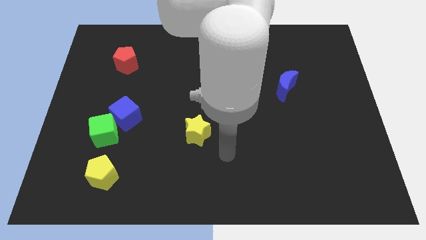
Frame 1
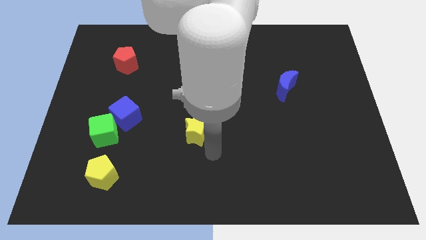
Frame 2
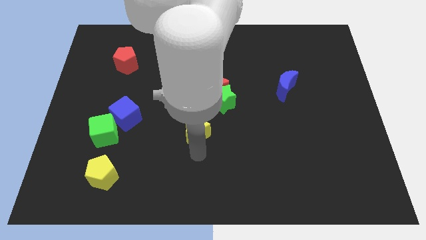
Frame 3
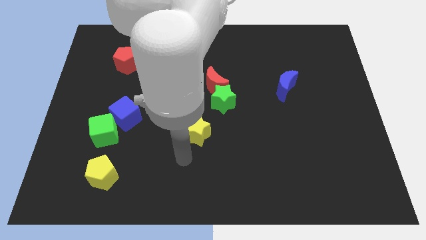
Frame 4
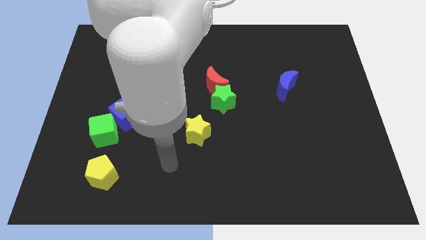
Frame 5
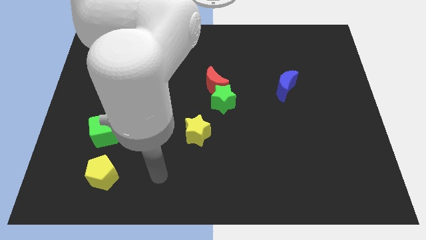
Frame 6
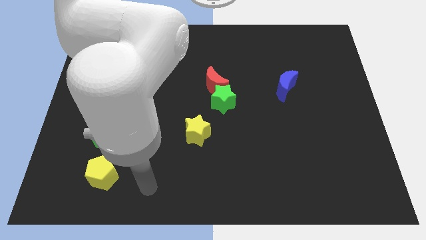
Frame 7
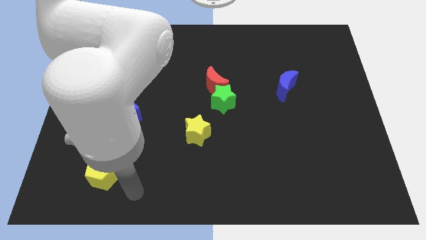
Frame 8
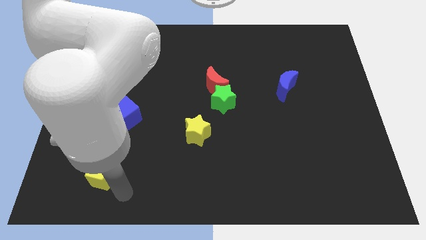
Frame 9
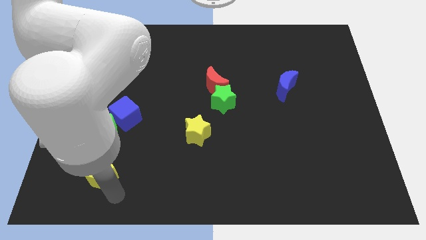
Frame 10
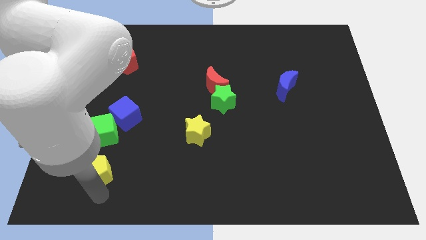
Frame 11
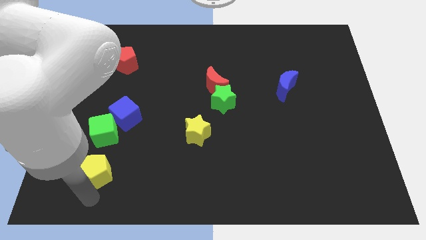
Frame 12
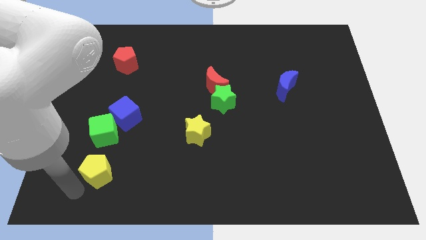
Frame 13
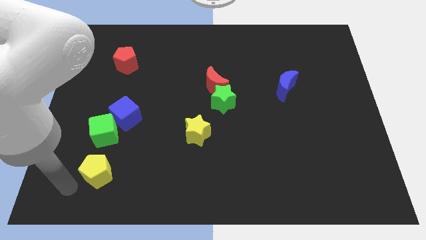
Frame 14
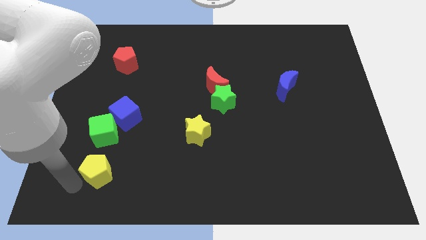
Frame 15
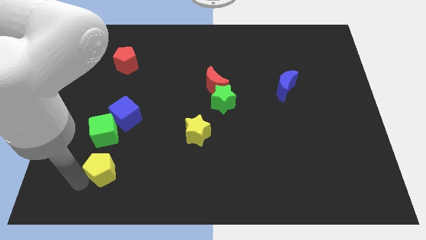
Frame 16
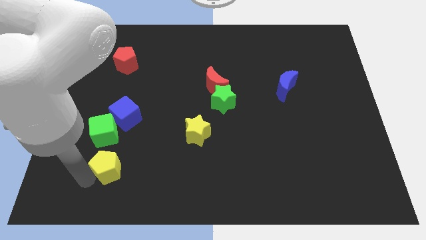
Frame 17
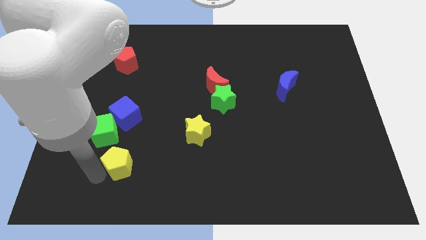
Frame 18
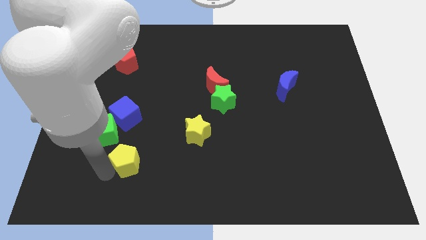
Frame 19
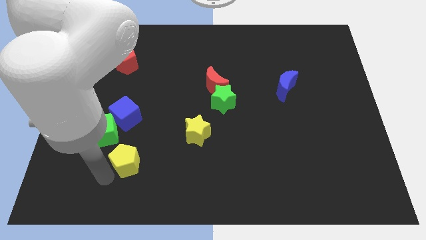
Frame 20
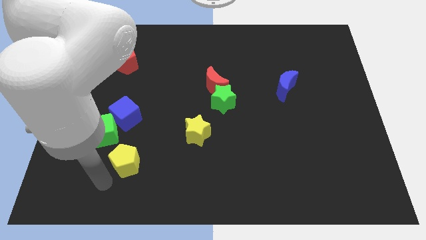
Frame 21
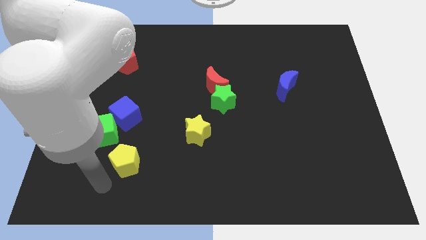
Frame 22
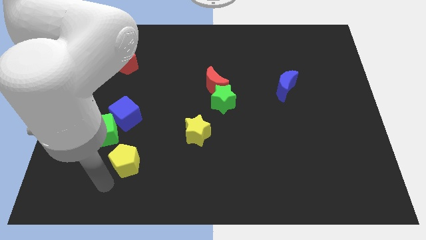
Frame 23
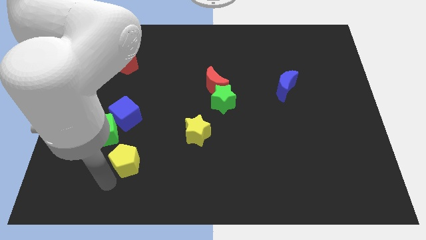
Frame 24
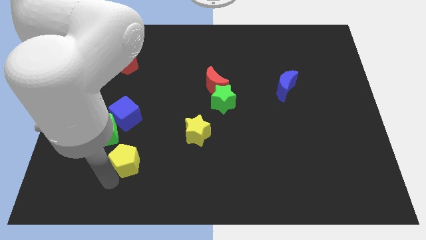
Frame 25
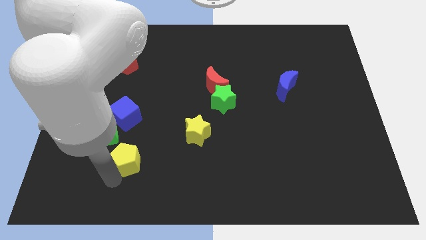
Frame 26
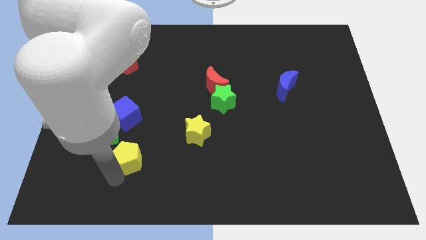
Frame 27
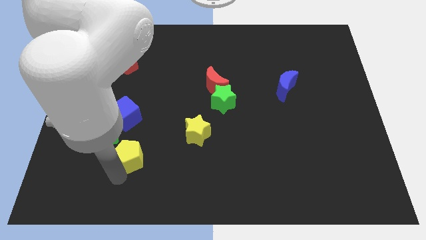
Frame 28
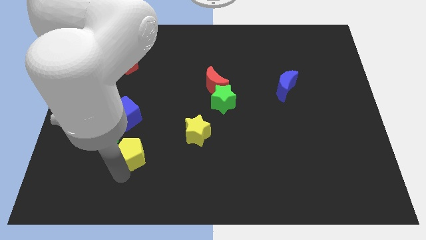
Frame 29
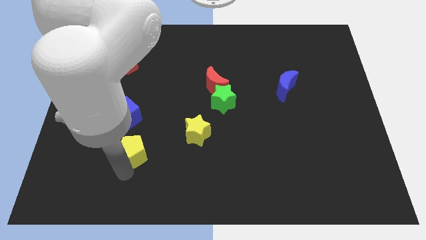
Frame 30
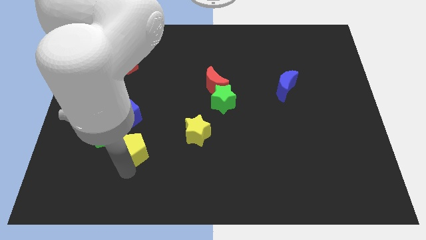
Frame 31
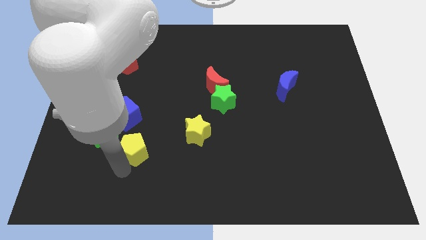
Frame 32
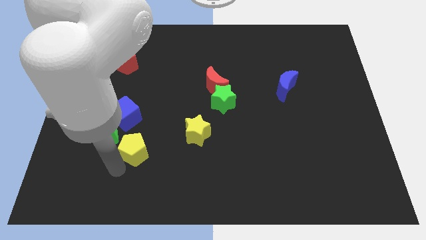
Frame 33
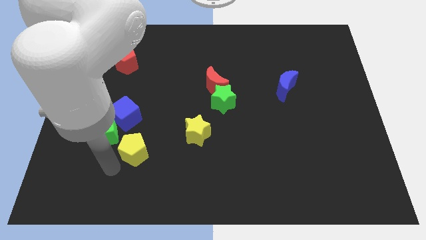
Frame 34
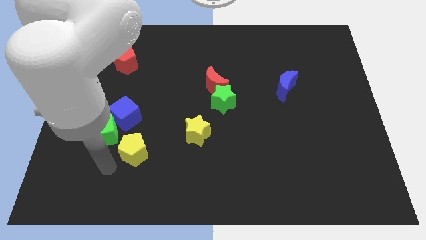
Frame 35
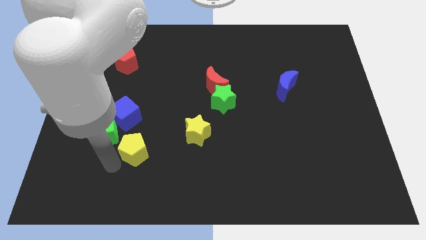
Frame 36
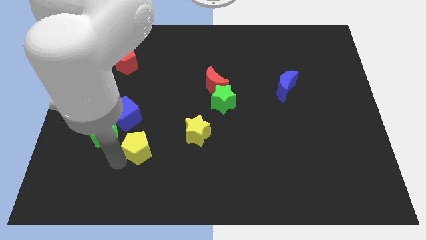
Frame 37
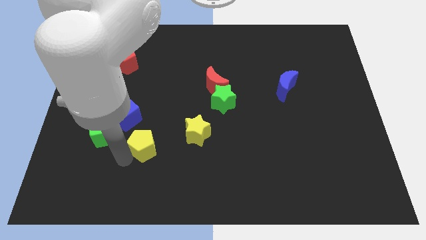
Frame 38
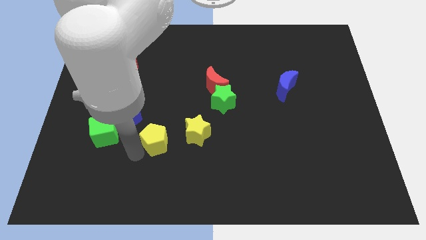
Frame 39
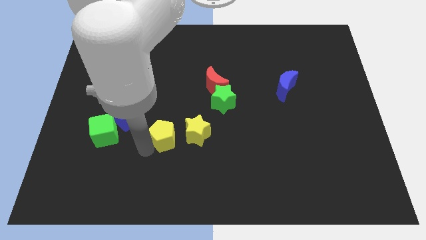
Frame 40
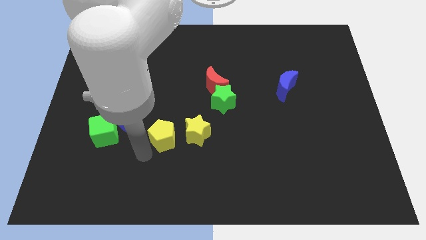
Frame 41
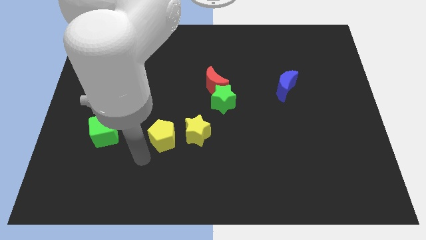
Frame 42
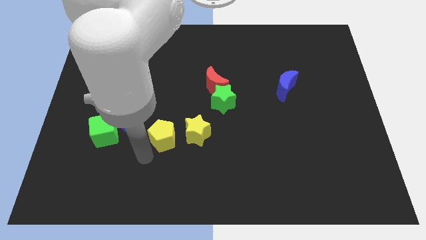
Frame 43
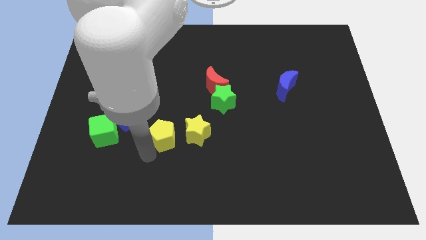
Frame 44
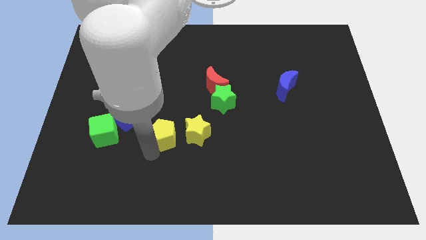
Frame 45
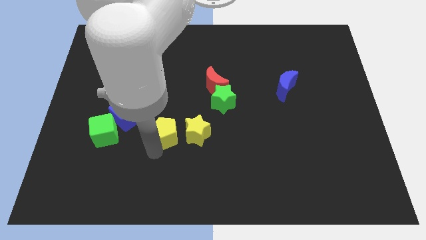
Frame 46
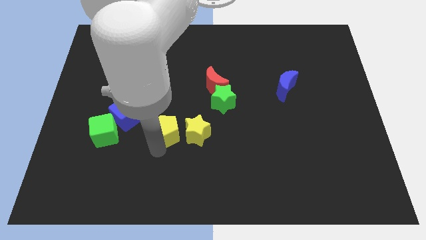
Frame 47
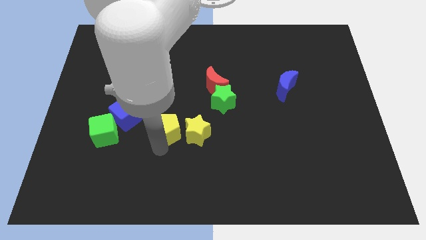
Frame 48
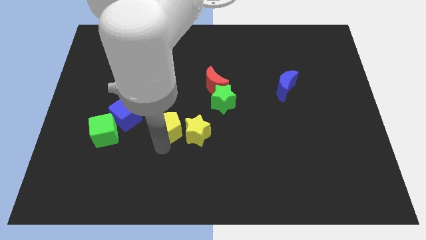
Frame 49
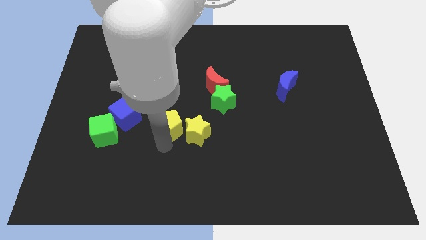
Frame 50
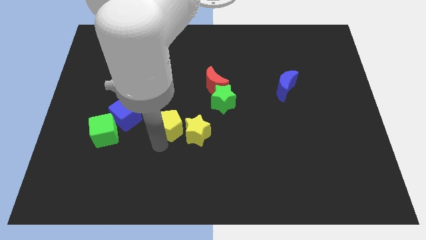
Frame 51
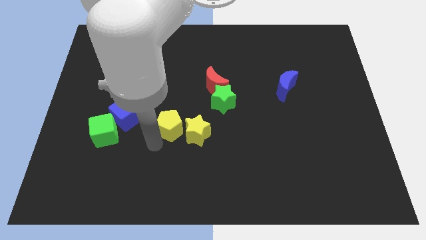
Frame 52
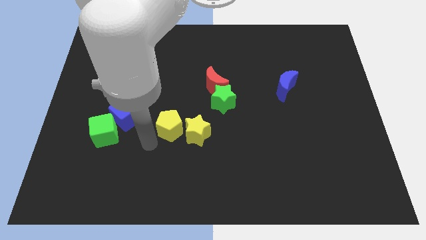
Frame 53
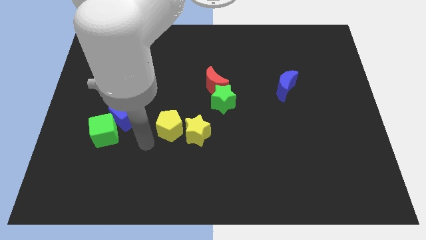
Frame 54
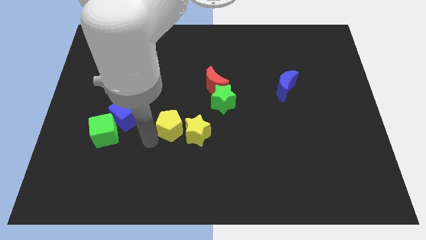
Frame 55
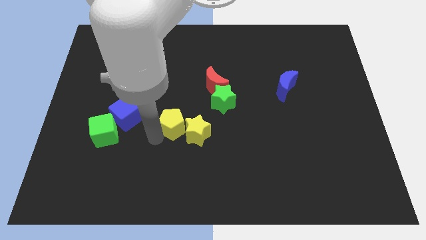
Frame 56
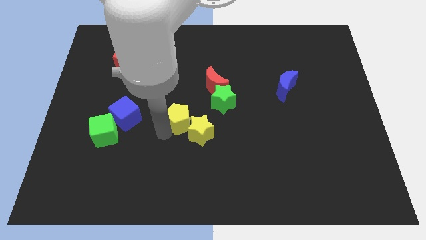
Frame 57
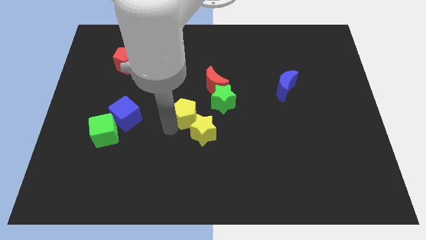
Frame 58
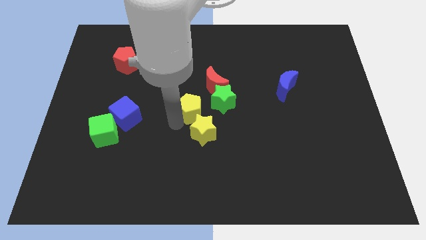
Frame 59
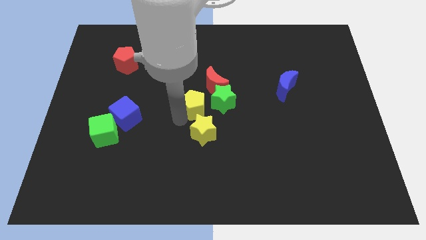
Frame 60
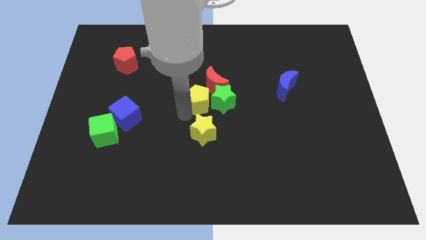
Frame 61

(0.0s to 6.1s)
put the yellow pentagon towards the green star

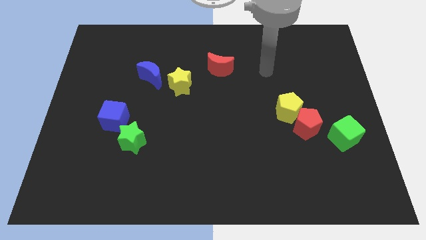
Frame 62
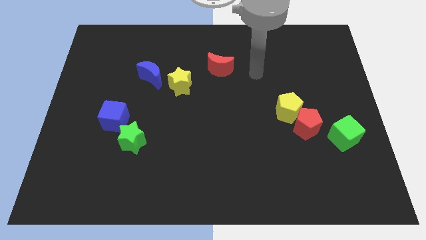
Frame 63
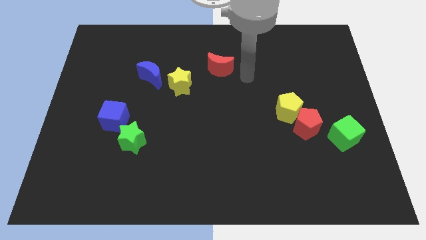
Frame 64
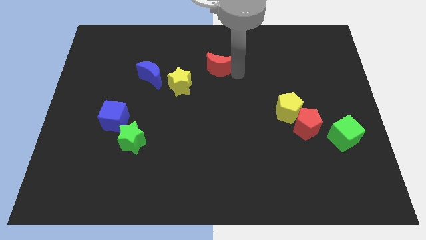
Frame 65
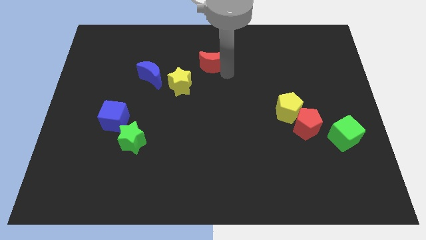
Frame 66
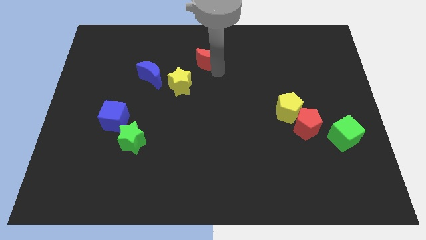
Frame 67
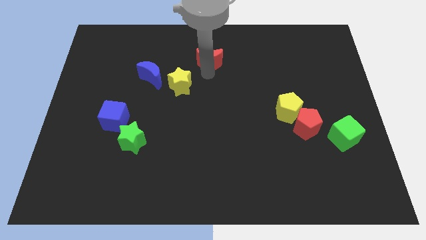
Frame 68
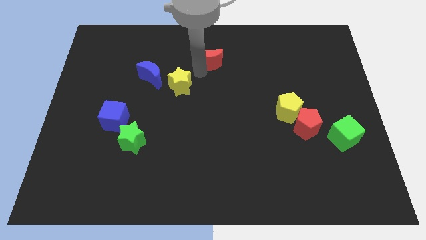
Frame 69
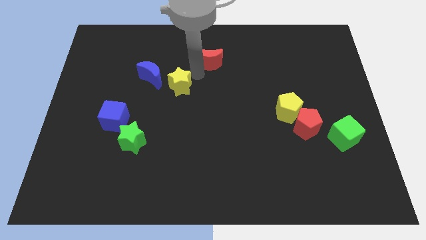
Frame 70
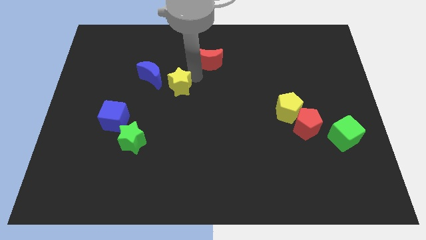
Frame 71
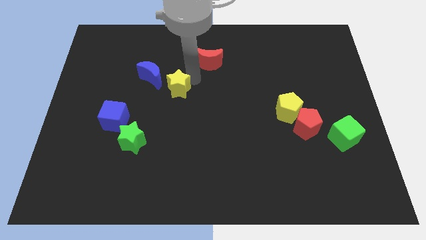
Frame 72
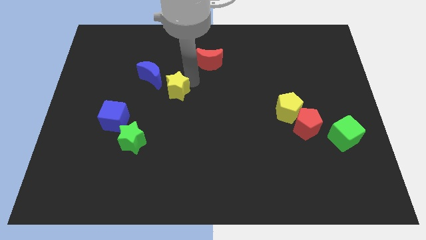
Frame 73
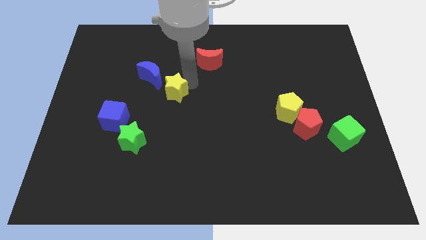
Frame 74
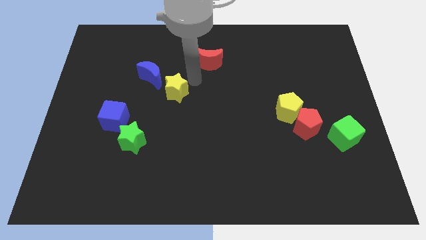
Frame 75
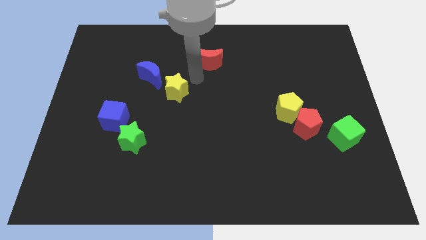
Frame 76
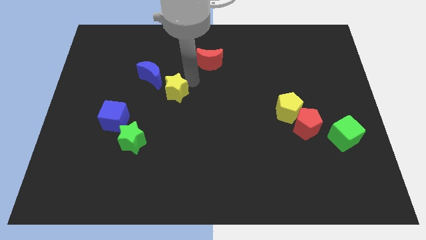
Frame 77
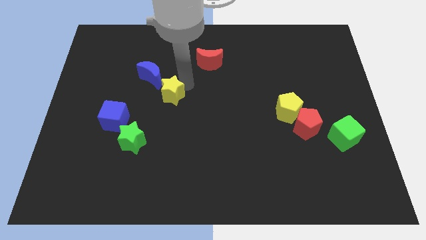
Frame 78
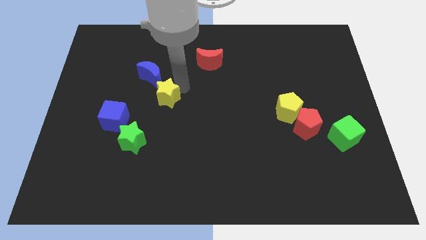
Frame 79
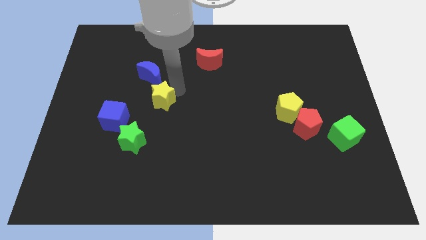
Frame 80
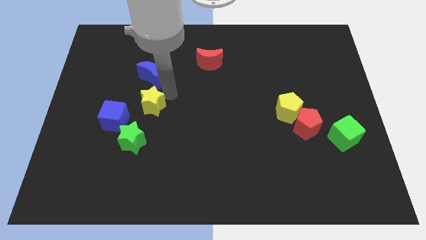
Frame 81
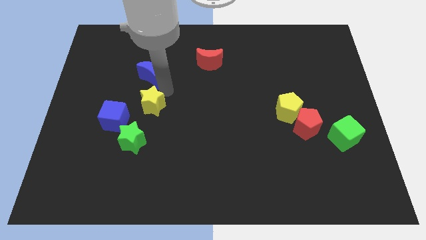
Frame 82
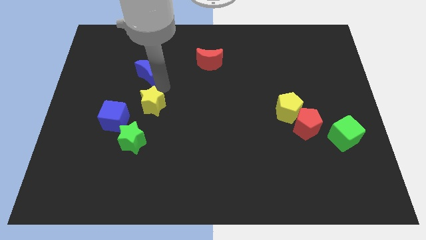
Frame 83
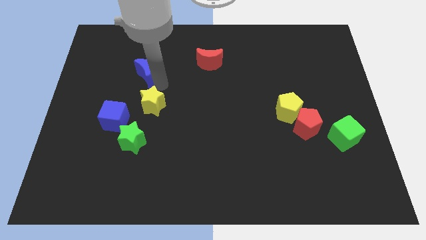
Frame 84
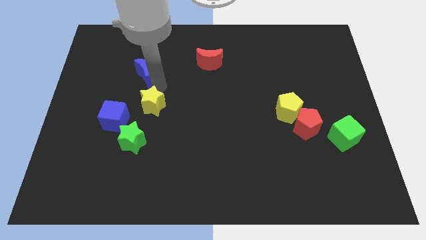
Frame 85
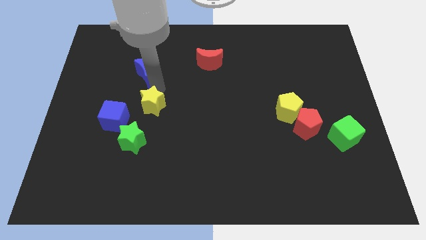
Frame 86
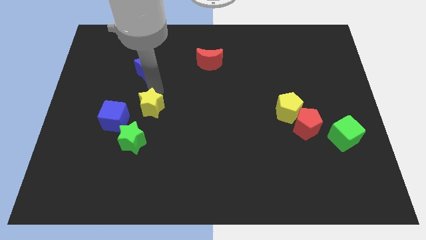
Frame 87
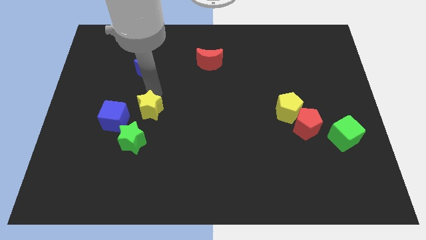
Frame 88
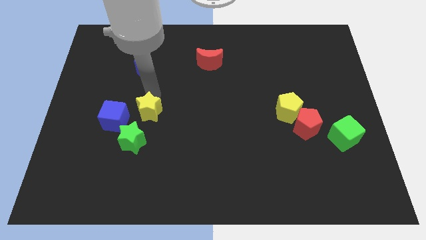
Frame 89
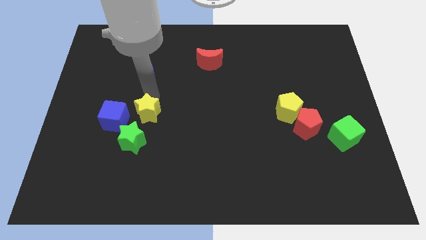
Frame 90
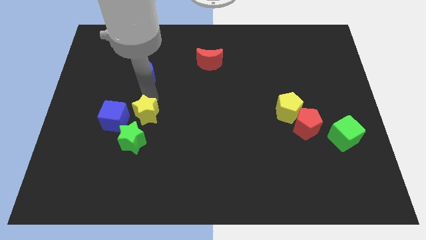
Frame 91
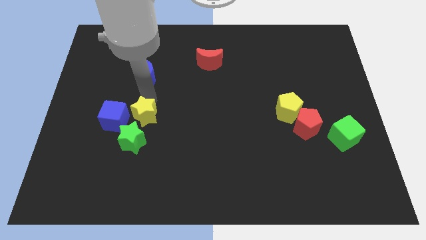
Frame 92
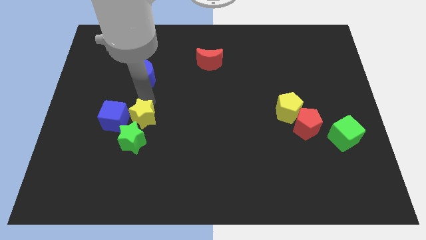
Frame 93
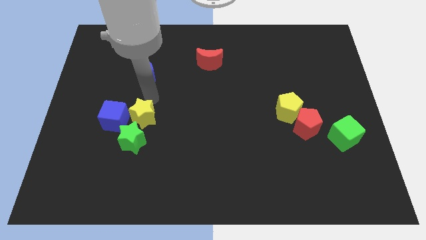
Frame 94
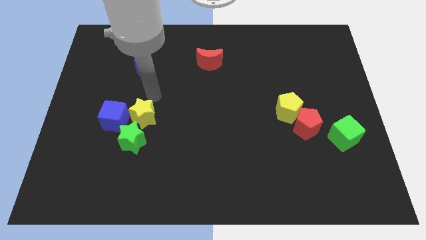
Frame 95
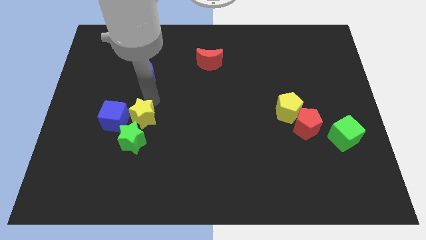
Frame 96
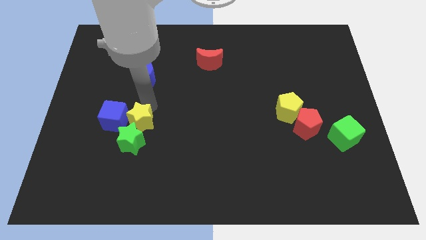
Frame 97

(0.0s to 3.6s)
slide the yellow star towards the green star
